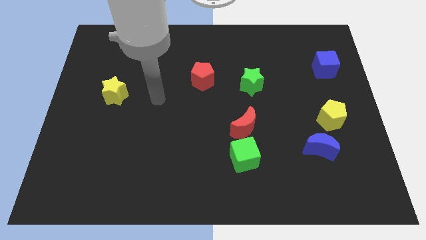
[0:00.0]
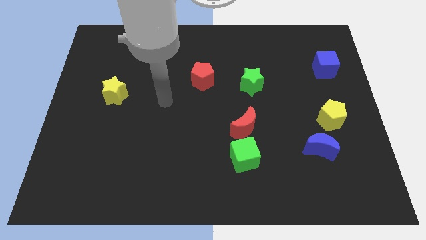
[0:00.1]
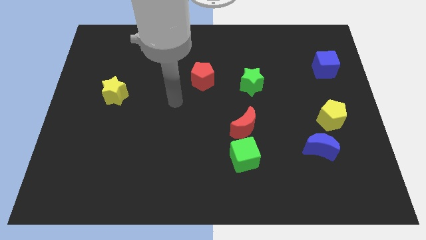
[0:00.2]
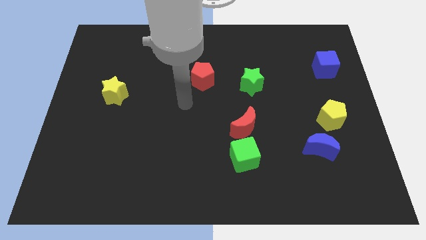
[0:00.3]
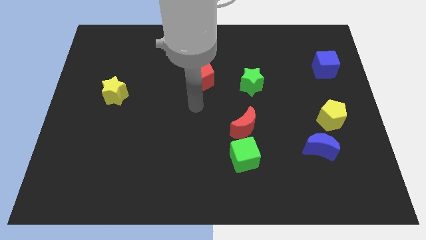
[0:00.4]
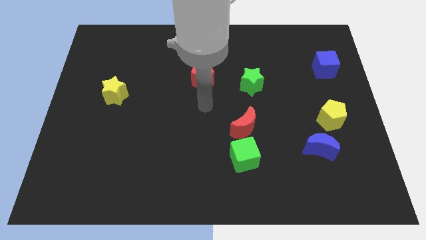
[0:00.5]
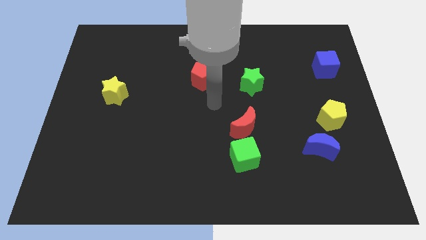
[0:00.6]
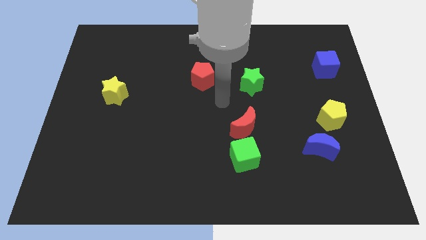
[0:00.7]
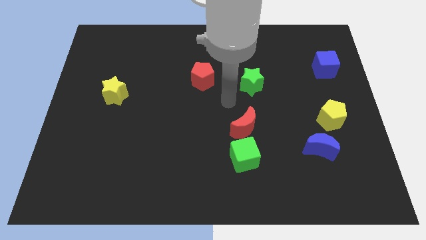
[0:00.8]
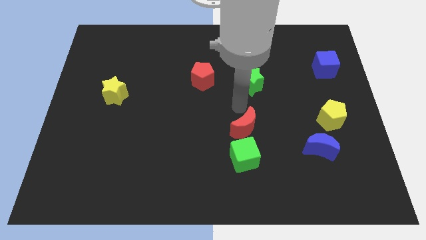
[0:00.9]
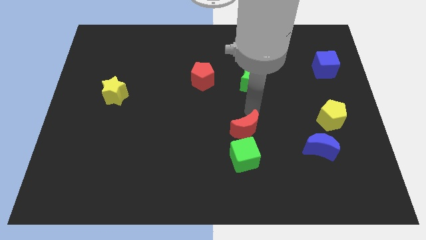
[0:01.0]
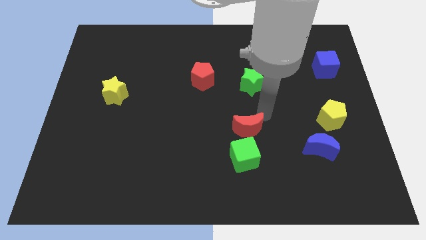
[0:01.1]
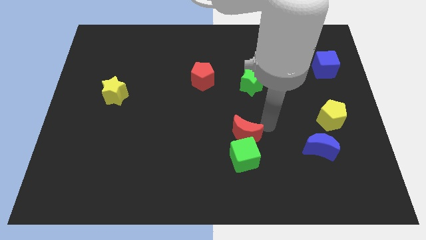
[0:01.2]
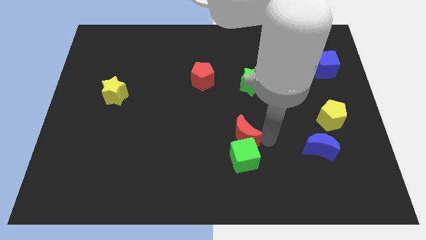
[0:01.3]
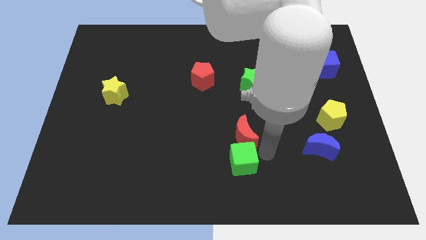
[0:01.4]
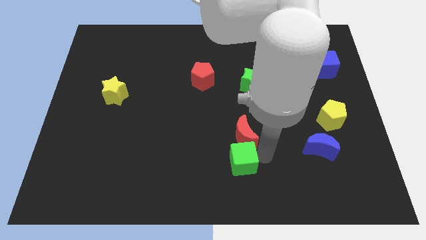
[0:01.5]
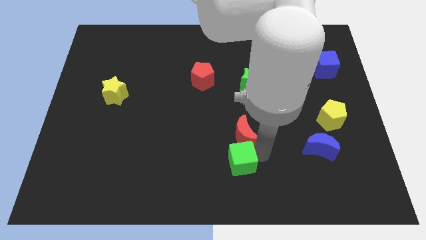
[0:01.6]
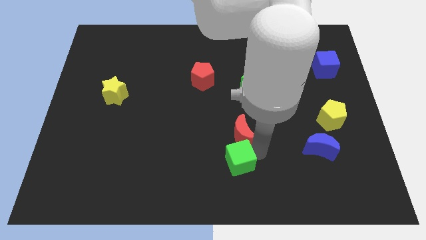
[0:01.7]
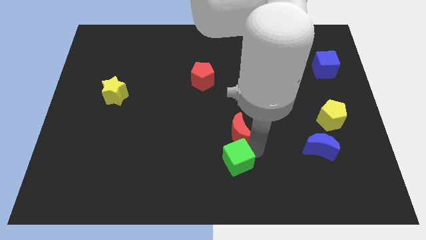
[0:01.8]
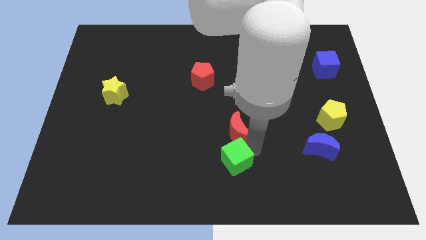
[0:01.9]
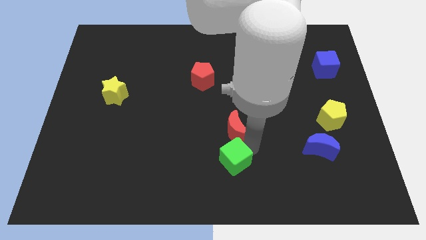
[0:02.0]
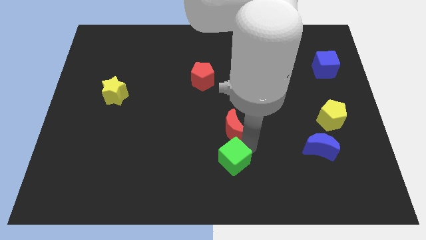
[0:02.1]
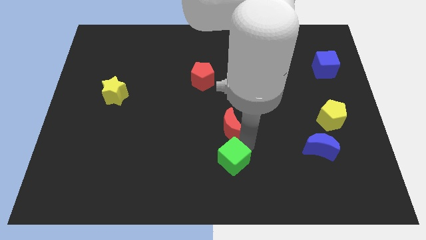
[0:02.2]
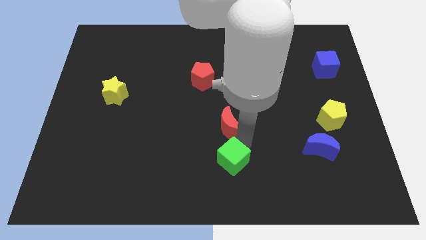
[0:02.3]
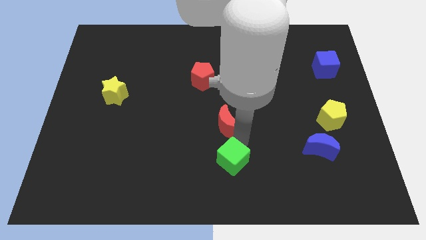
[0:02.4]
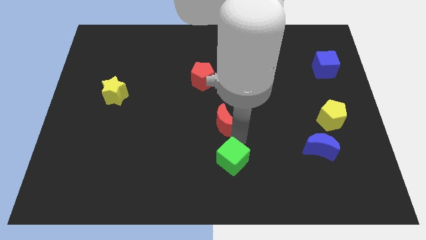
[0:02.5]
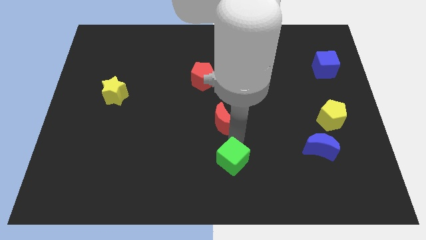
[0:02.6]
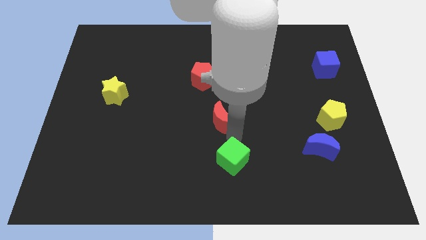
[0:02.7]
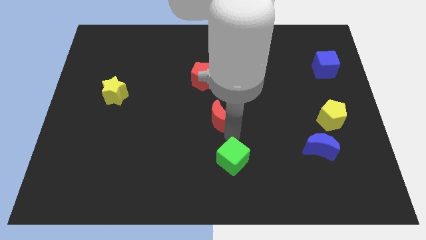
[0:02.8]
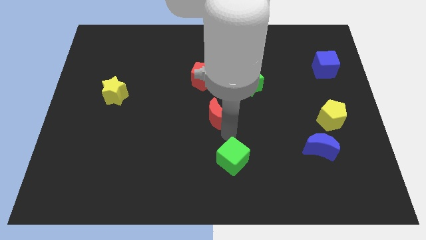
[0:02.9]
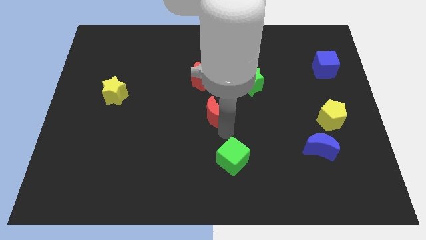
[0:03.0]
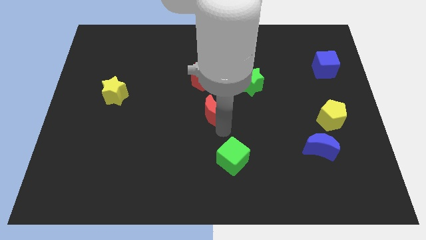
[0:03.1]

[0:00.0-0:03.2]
slightly push the red moon upwards and to the left diagonally

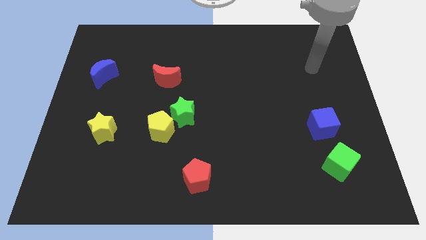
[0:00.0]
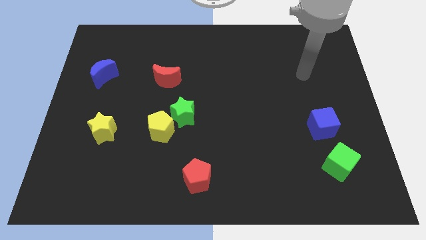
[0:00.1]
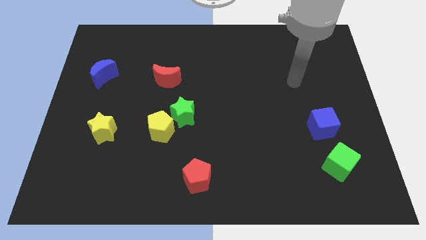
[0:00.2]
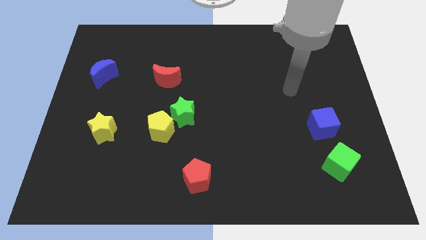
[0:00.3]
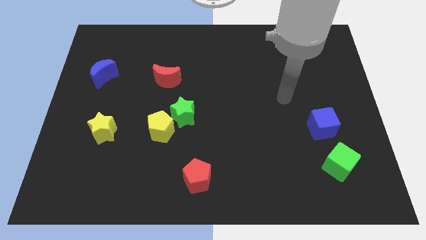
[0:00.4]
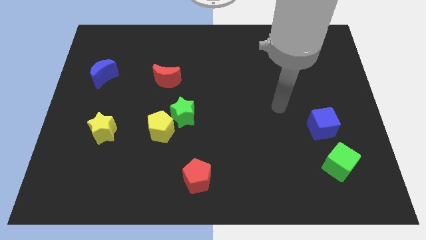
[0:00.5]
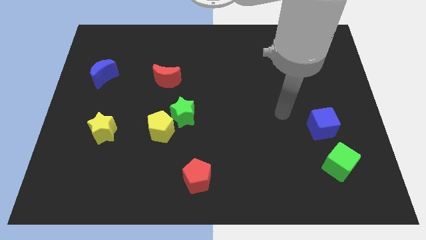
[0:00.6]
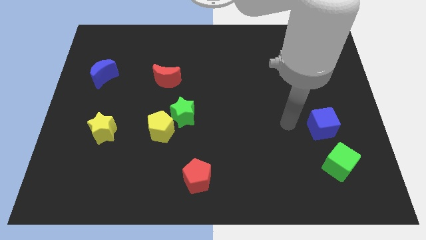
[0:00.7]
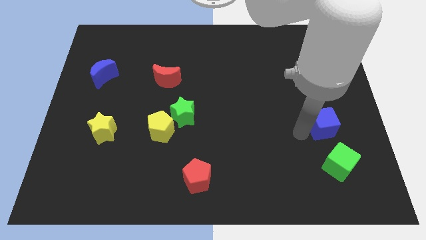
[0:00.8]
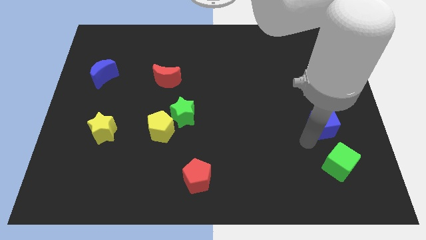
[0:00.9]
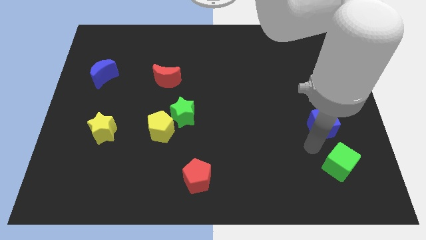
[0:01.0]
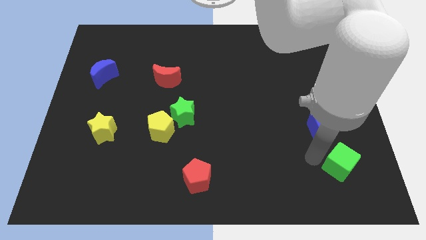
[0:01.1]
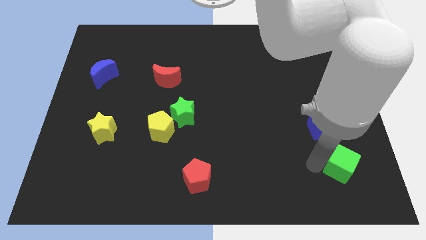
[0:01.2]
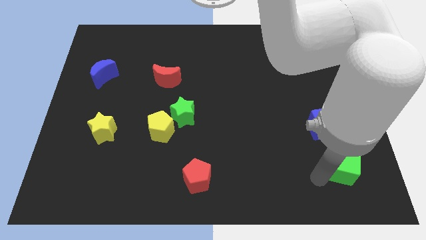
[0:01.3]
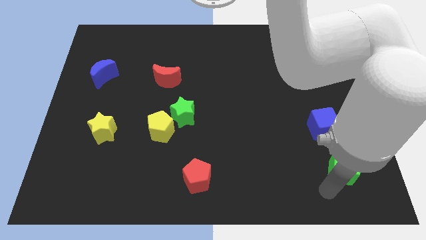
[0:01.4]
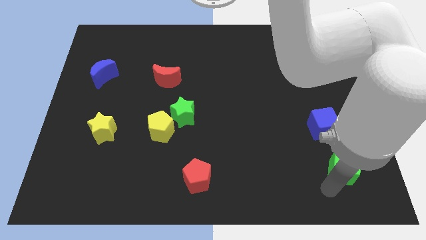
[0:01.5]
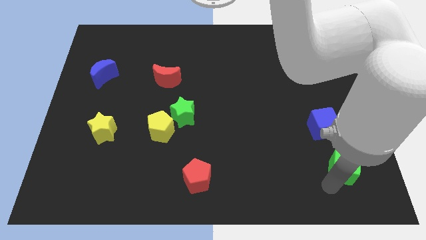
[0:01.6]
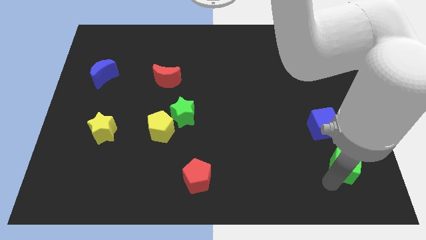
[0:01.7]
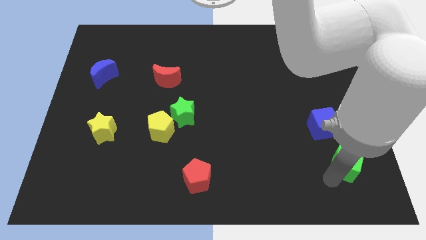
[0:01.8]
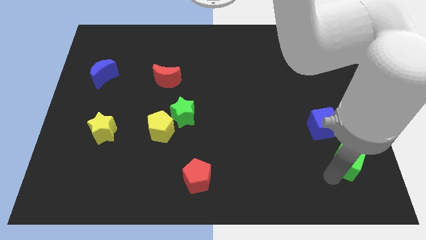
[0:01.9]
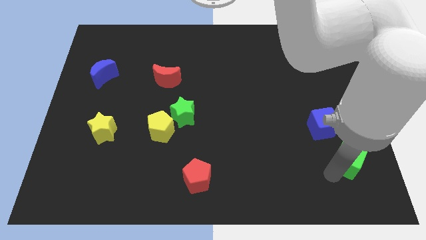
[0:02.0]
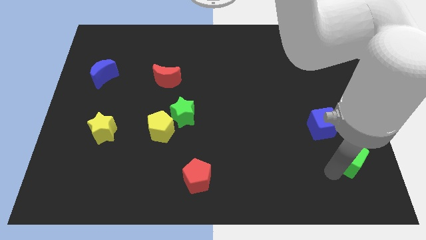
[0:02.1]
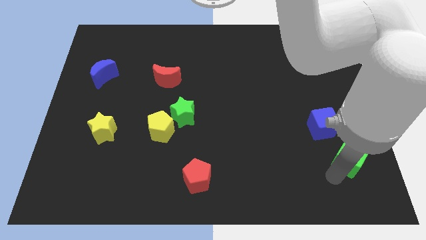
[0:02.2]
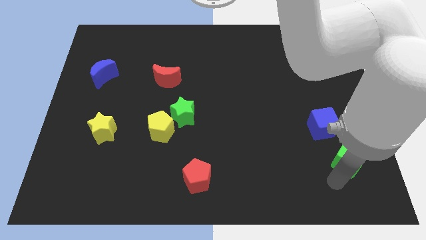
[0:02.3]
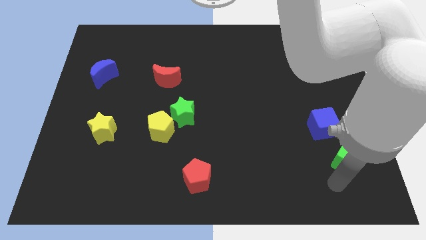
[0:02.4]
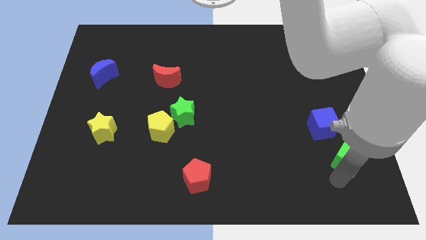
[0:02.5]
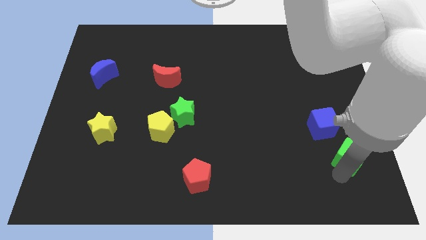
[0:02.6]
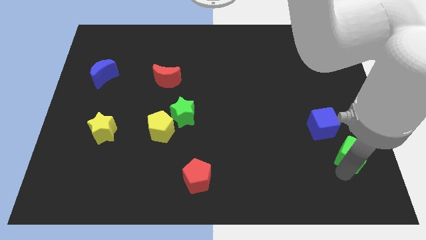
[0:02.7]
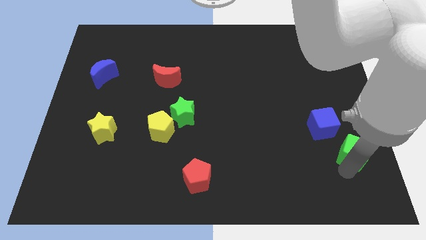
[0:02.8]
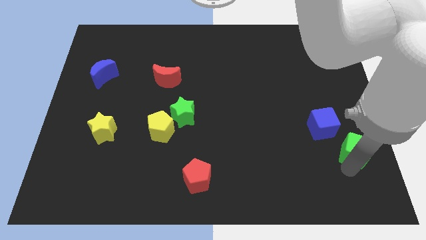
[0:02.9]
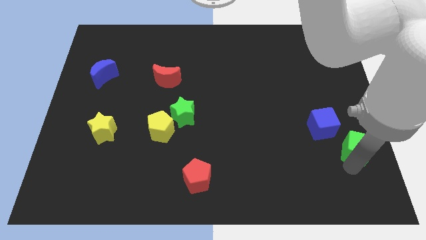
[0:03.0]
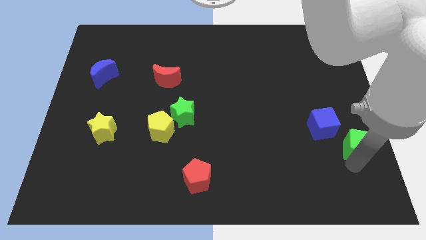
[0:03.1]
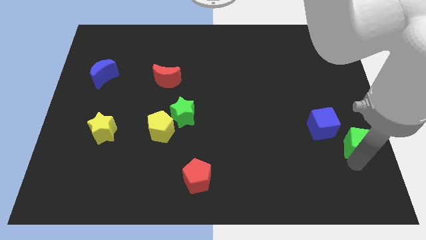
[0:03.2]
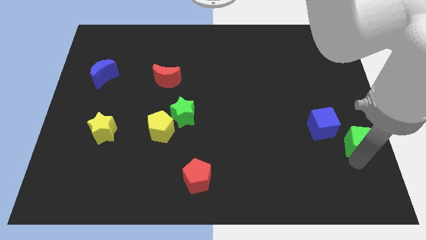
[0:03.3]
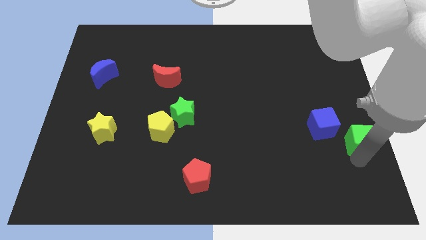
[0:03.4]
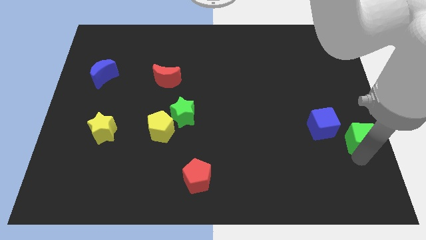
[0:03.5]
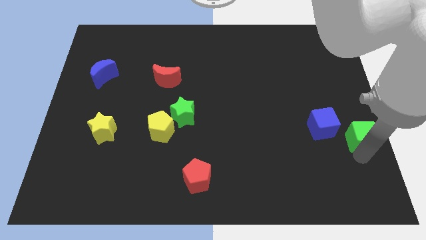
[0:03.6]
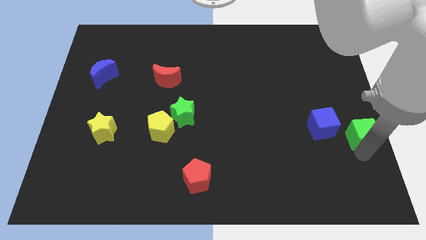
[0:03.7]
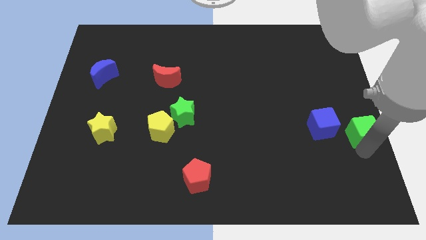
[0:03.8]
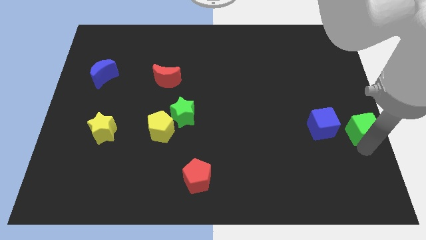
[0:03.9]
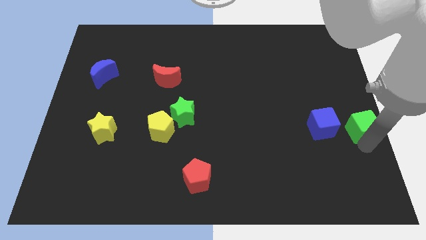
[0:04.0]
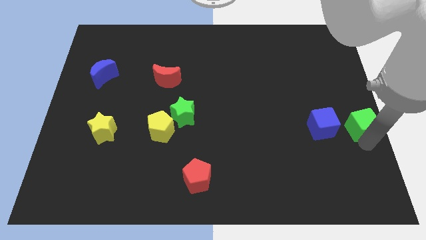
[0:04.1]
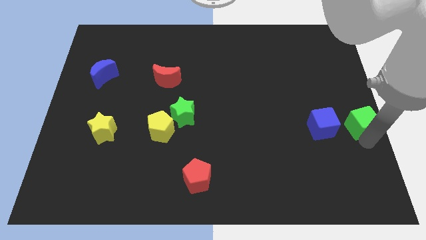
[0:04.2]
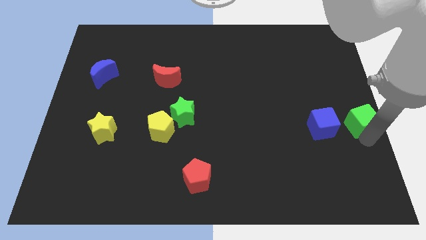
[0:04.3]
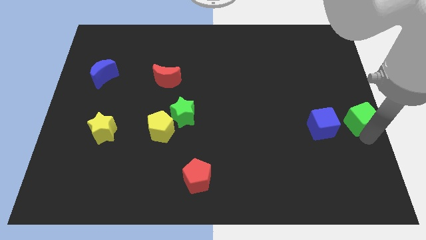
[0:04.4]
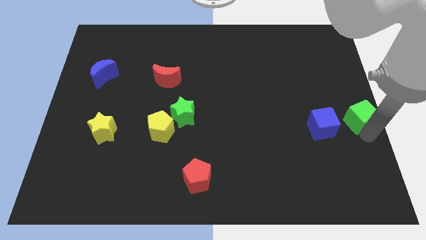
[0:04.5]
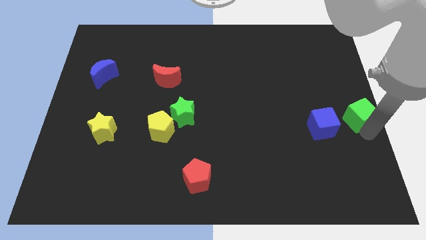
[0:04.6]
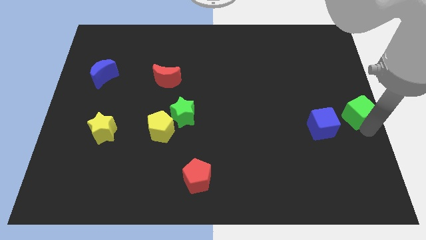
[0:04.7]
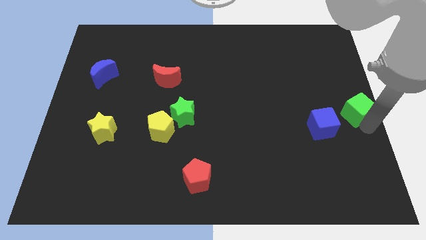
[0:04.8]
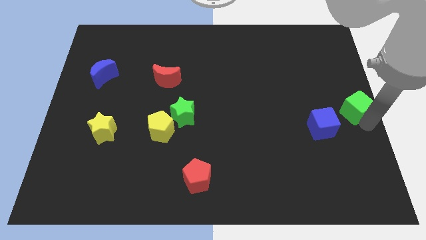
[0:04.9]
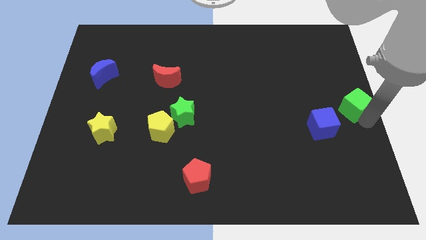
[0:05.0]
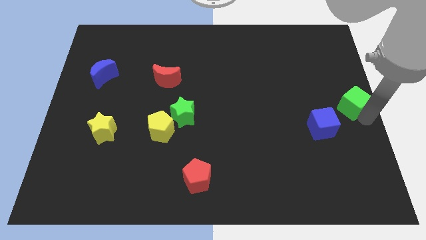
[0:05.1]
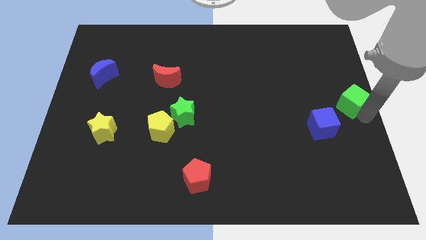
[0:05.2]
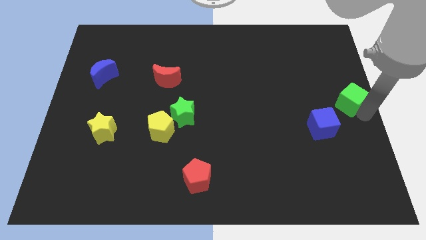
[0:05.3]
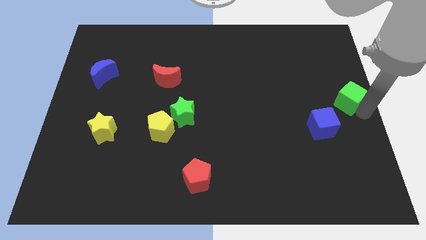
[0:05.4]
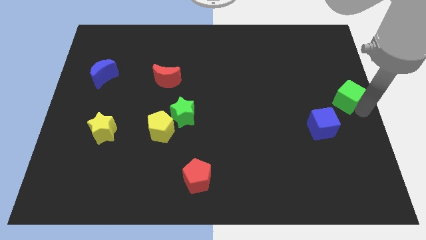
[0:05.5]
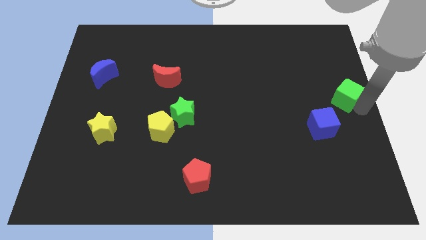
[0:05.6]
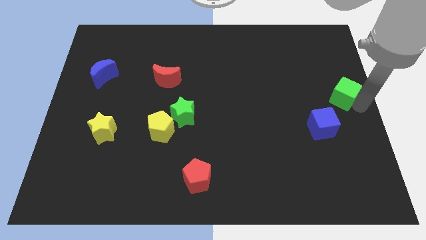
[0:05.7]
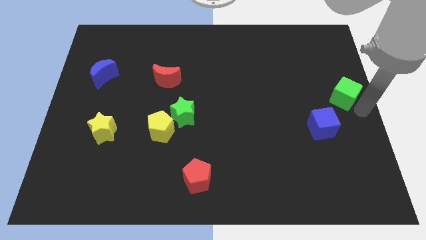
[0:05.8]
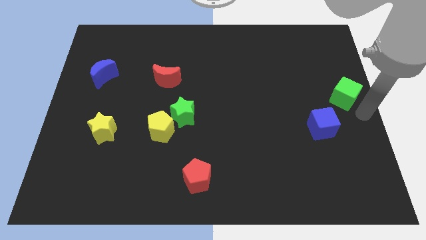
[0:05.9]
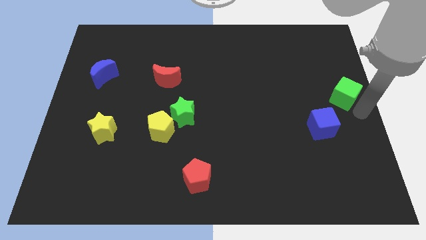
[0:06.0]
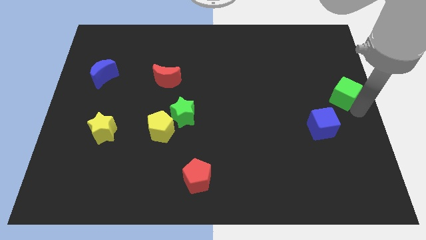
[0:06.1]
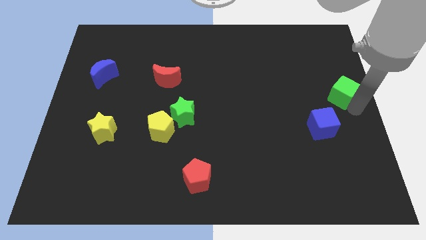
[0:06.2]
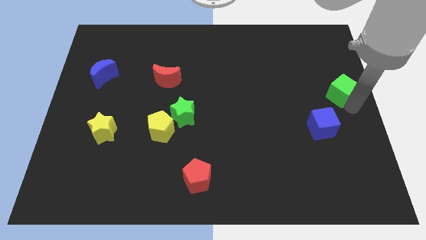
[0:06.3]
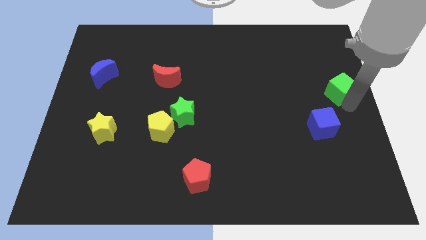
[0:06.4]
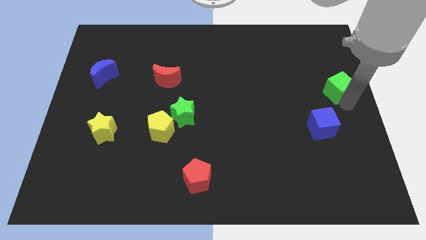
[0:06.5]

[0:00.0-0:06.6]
slide the green cube upwards
